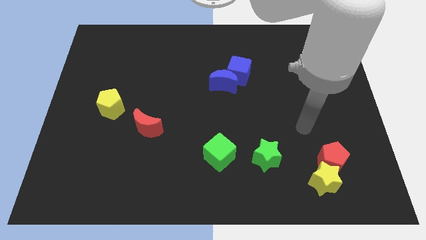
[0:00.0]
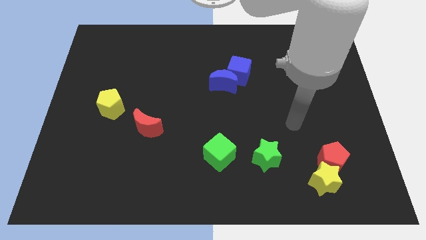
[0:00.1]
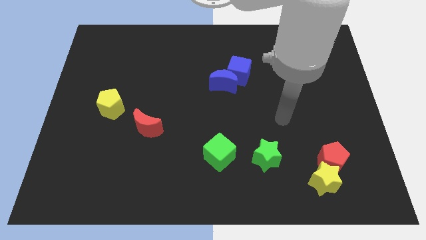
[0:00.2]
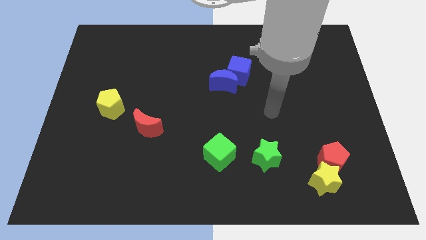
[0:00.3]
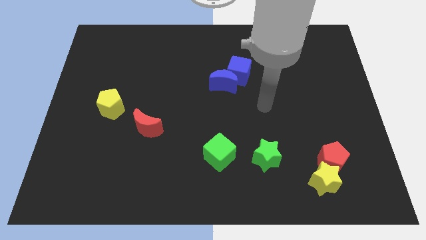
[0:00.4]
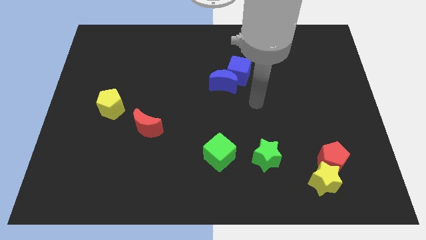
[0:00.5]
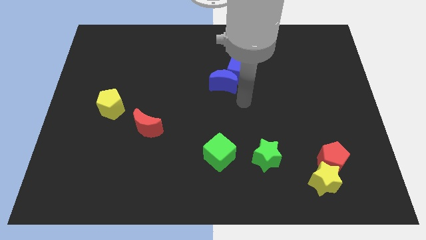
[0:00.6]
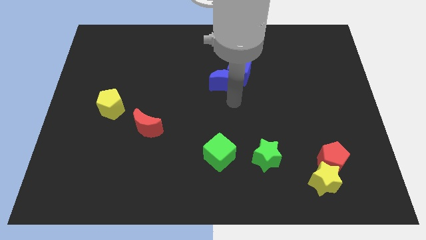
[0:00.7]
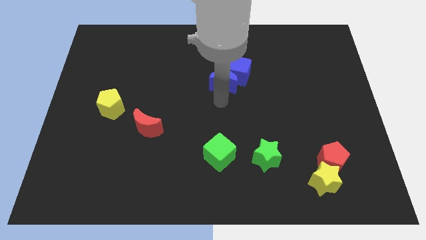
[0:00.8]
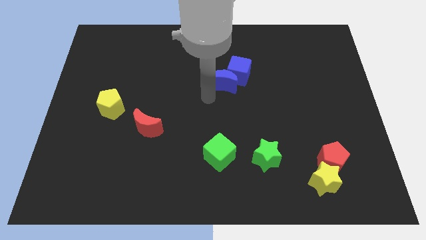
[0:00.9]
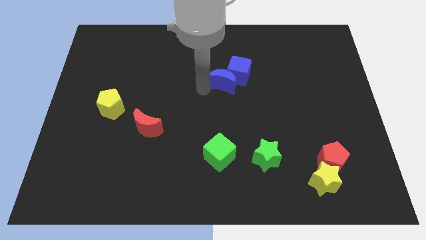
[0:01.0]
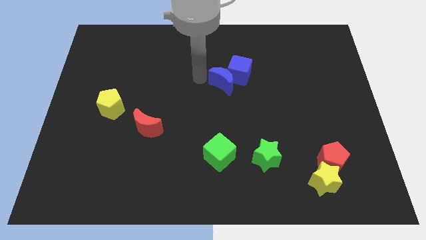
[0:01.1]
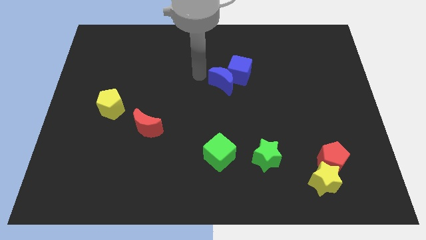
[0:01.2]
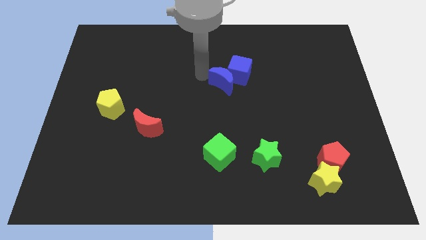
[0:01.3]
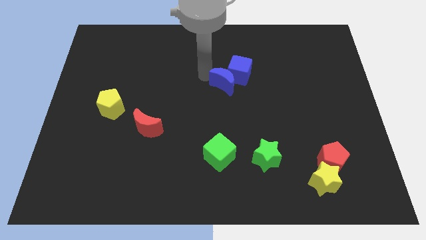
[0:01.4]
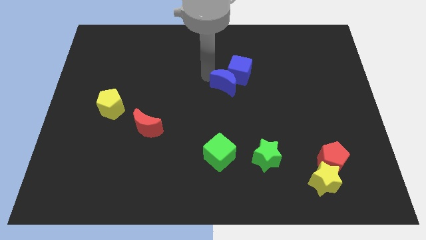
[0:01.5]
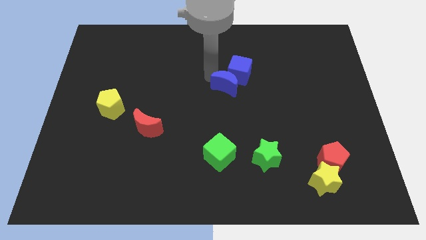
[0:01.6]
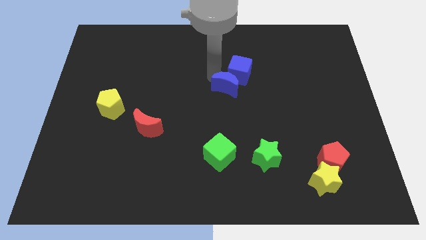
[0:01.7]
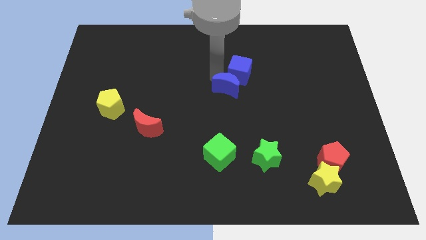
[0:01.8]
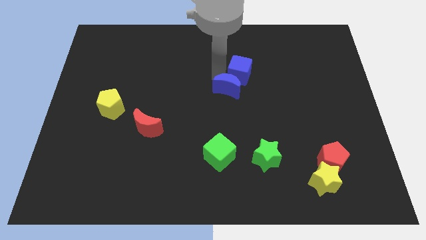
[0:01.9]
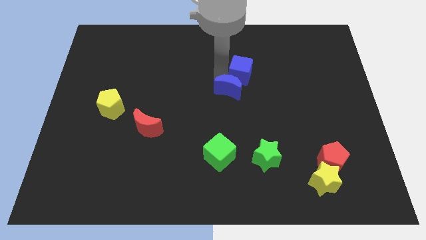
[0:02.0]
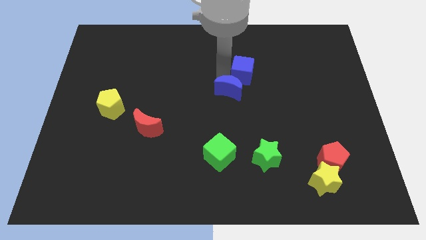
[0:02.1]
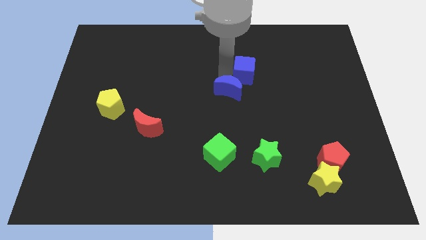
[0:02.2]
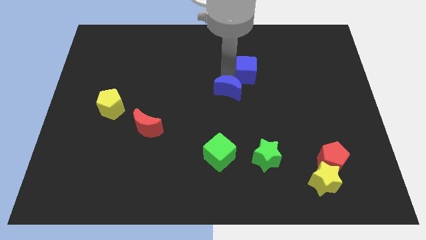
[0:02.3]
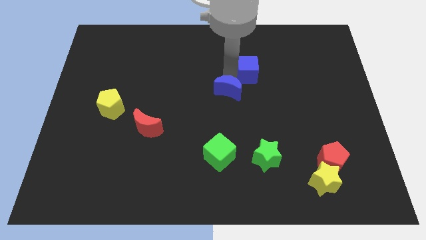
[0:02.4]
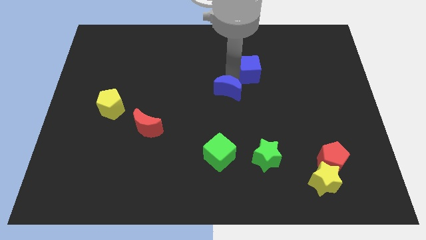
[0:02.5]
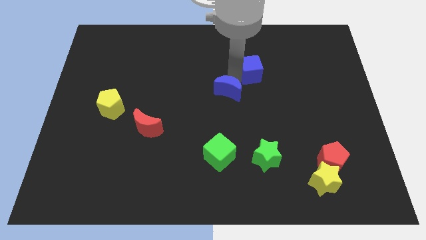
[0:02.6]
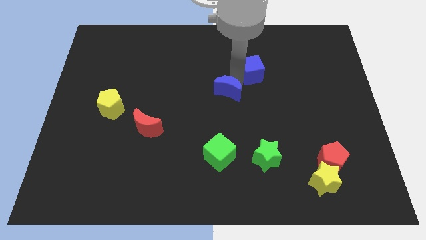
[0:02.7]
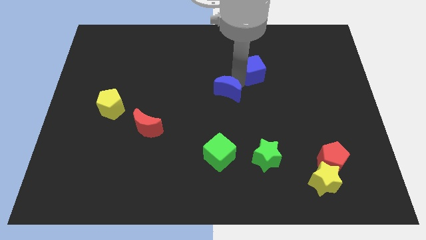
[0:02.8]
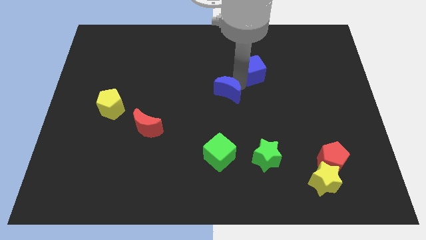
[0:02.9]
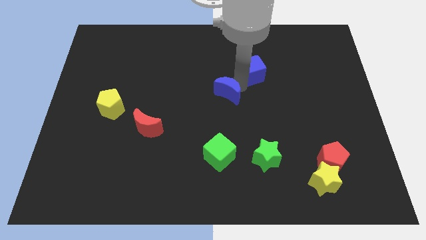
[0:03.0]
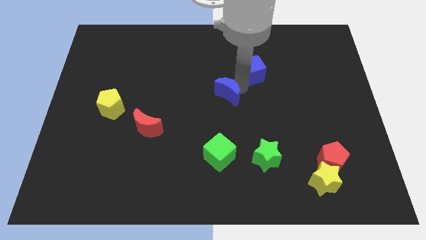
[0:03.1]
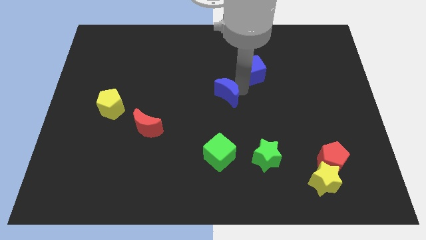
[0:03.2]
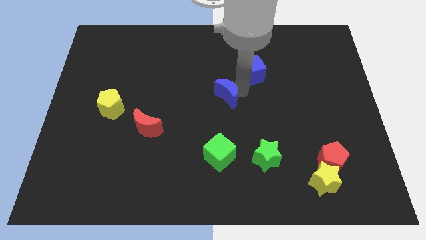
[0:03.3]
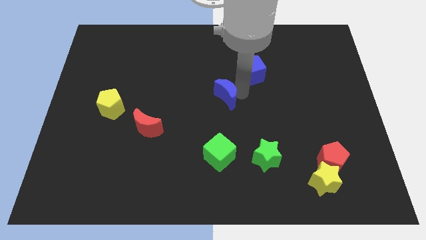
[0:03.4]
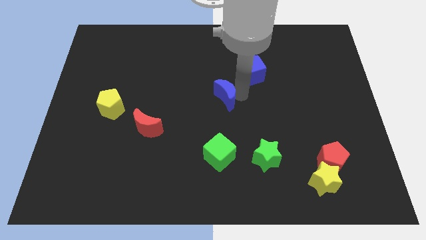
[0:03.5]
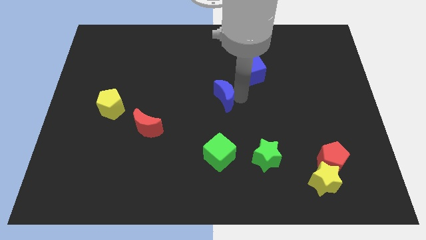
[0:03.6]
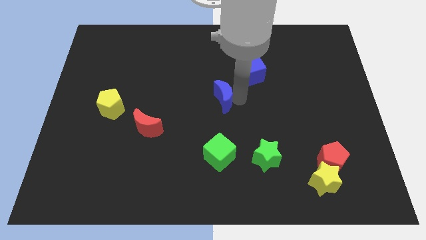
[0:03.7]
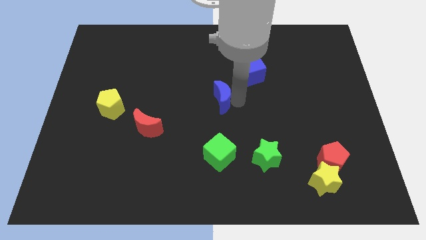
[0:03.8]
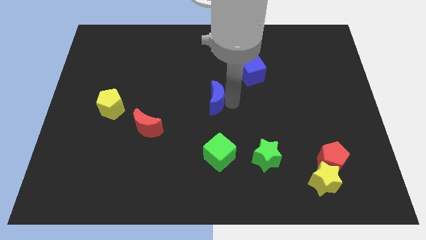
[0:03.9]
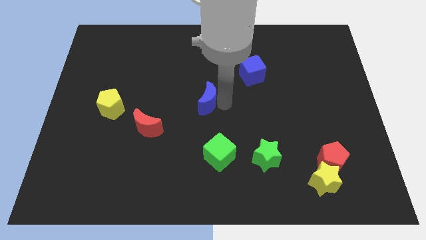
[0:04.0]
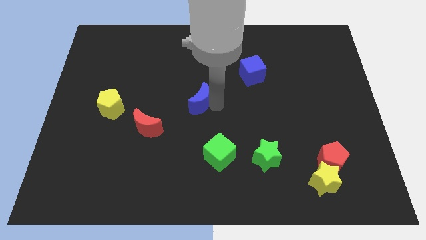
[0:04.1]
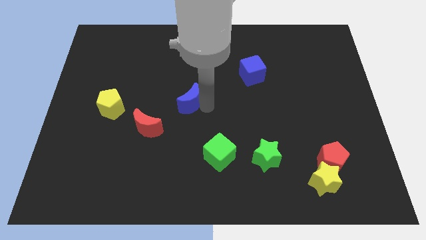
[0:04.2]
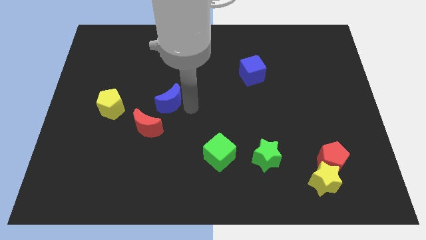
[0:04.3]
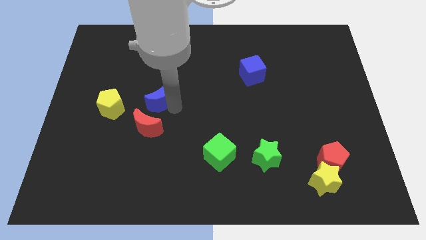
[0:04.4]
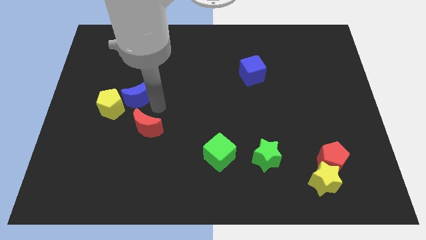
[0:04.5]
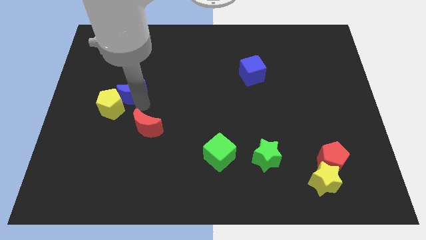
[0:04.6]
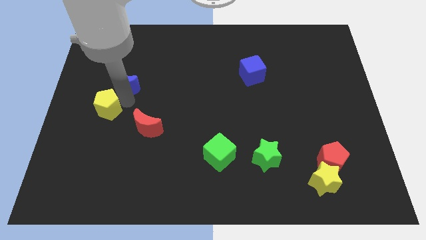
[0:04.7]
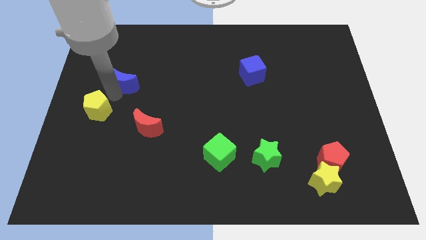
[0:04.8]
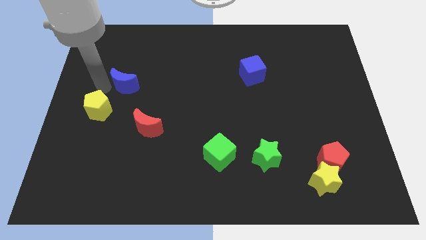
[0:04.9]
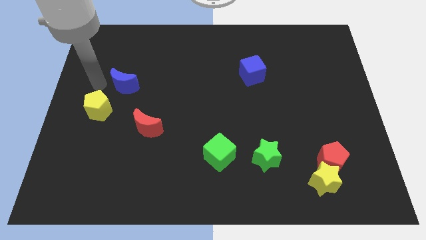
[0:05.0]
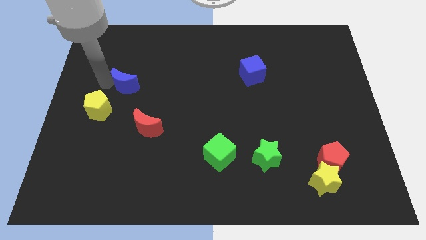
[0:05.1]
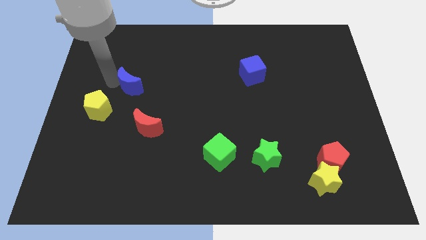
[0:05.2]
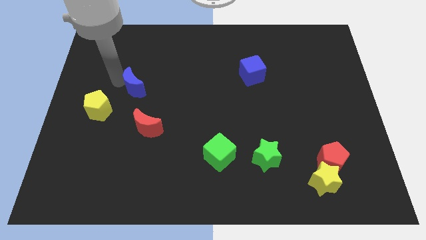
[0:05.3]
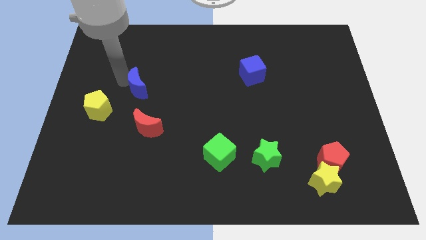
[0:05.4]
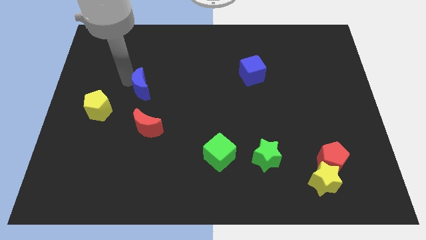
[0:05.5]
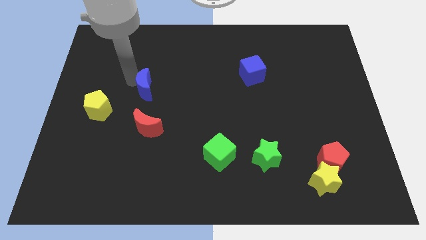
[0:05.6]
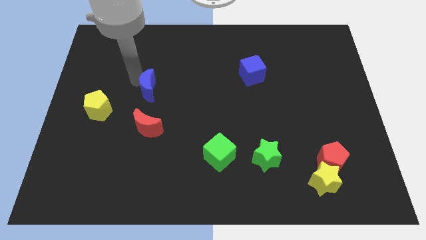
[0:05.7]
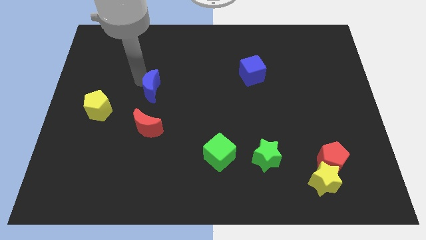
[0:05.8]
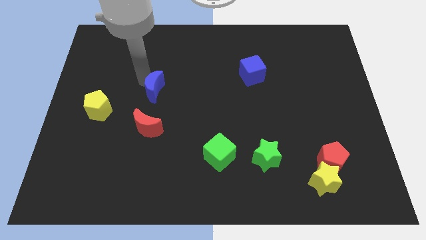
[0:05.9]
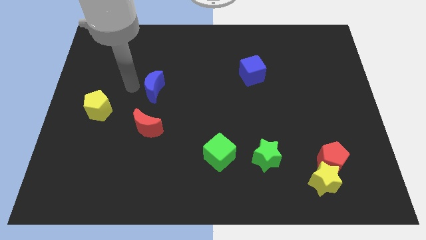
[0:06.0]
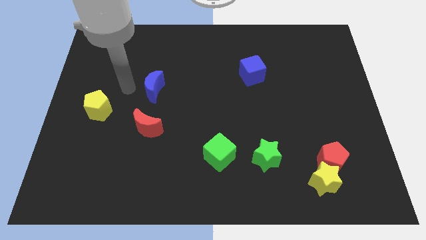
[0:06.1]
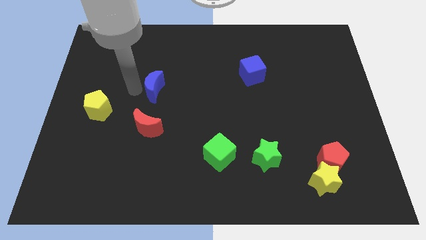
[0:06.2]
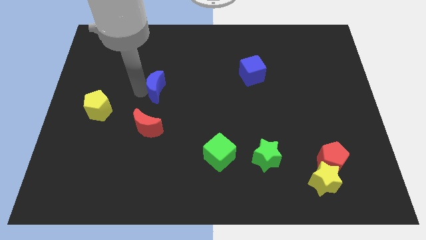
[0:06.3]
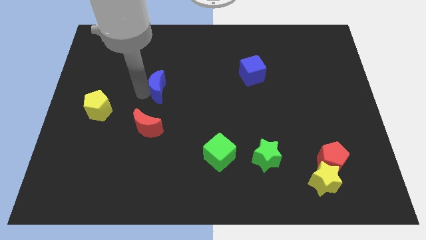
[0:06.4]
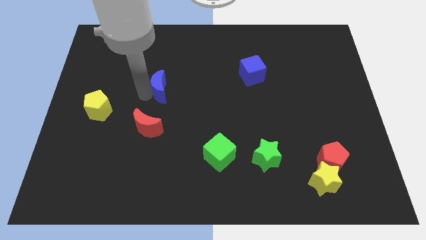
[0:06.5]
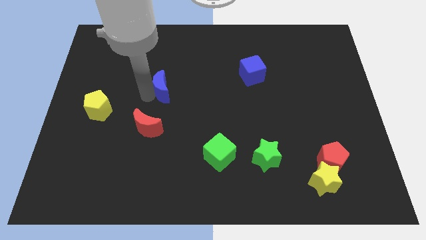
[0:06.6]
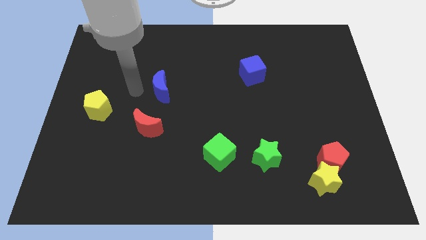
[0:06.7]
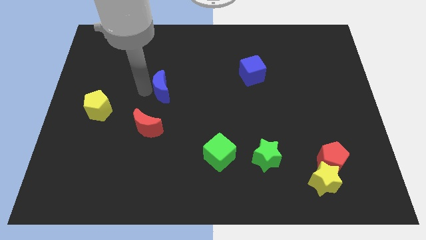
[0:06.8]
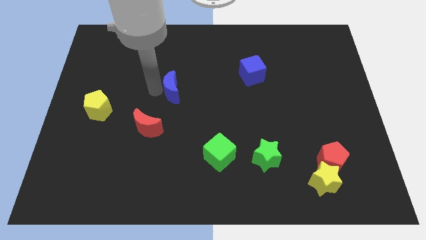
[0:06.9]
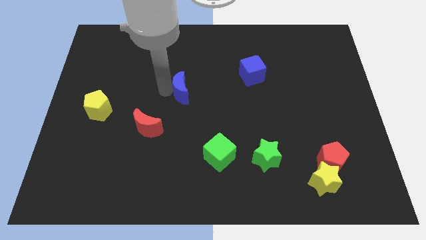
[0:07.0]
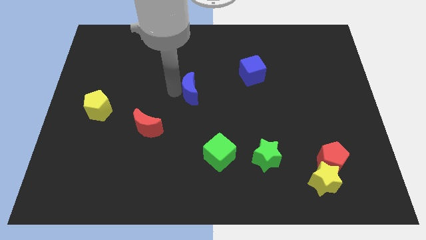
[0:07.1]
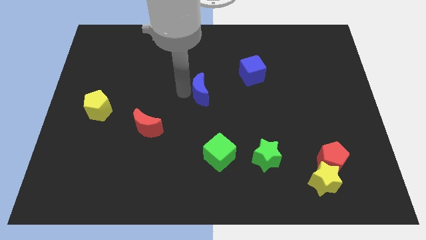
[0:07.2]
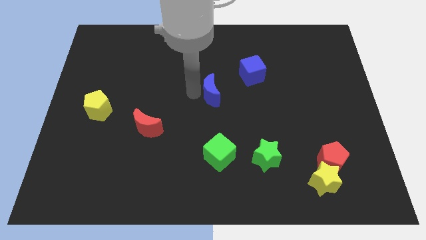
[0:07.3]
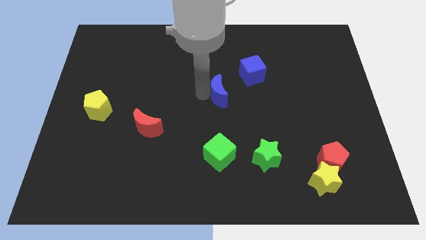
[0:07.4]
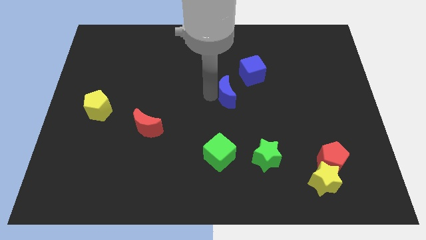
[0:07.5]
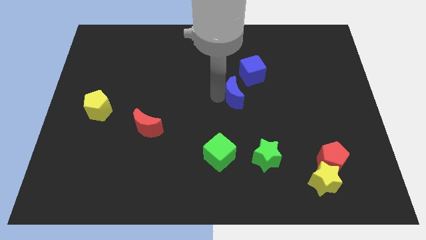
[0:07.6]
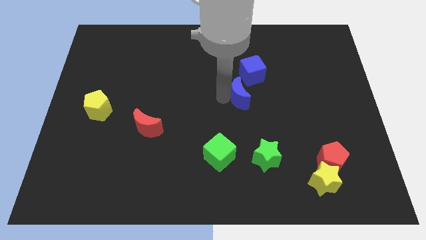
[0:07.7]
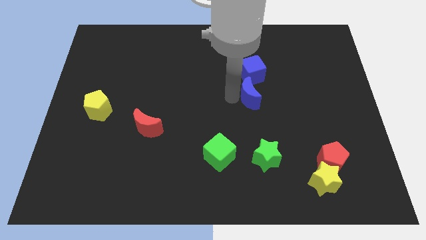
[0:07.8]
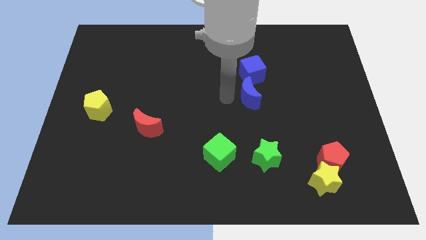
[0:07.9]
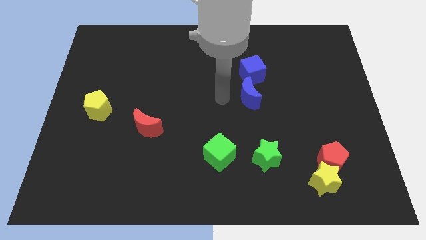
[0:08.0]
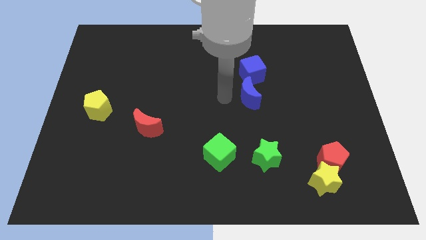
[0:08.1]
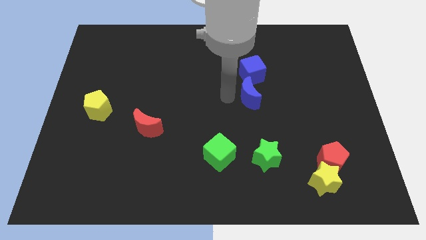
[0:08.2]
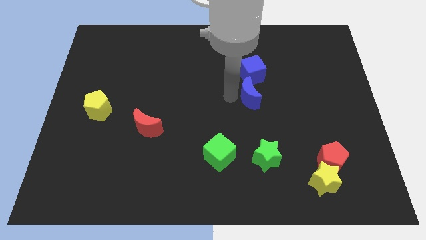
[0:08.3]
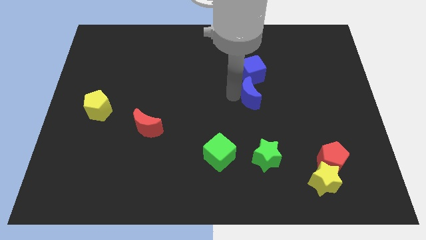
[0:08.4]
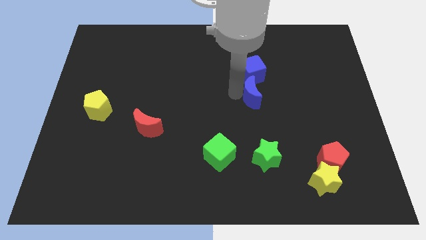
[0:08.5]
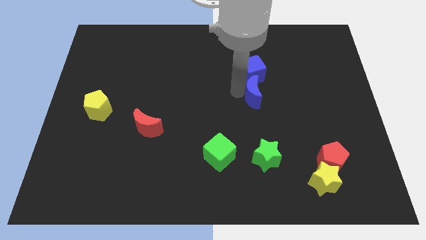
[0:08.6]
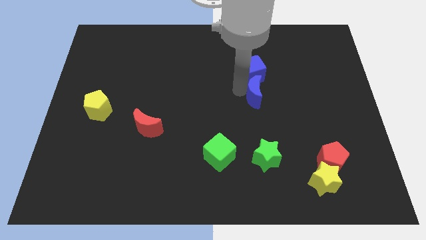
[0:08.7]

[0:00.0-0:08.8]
push the blue moon right a bit
